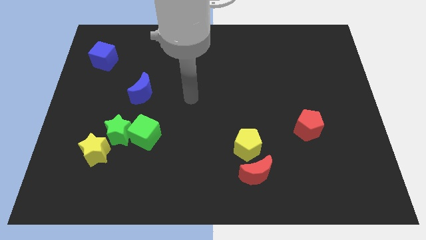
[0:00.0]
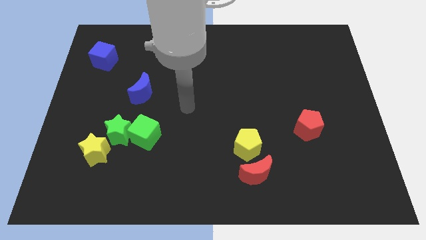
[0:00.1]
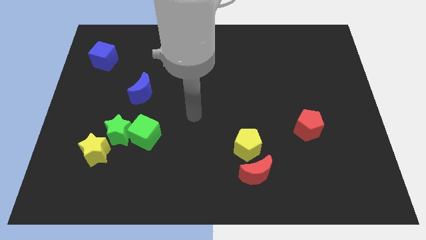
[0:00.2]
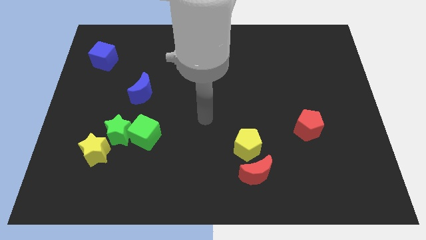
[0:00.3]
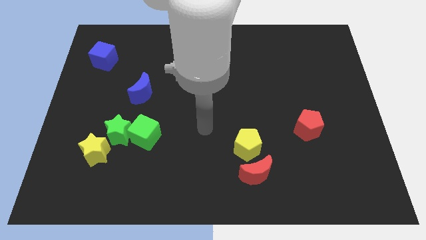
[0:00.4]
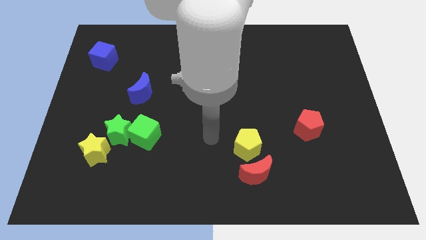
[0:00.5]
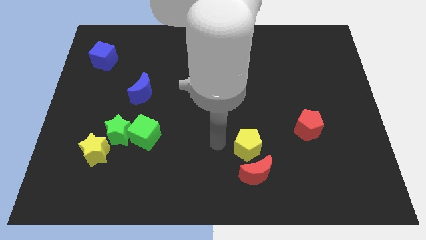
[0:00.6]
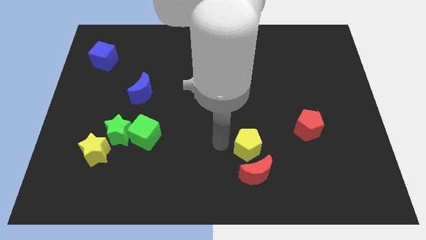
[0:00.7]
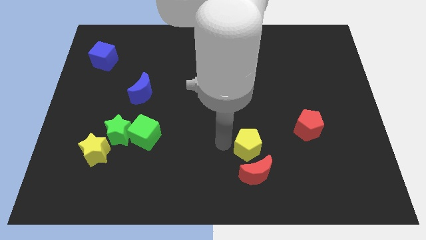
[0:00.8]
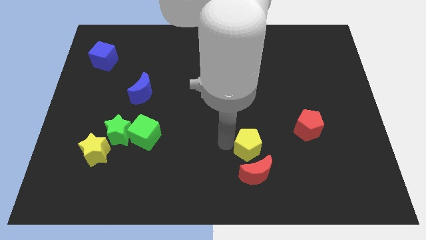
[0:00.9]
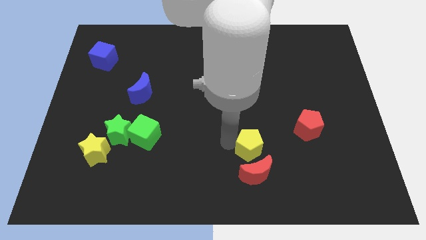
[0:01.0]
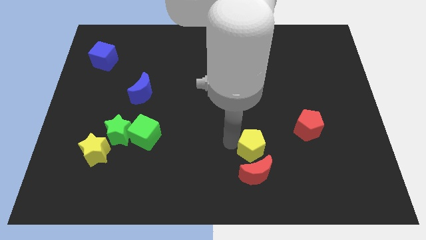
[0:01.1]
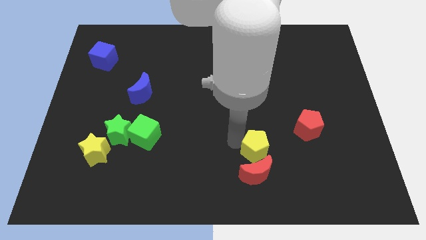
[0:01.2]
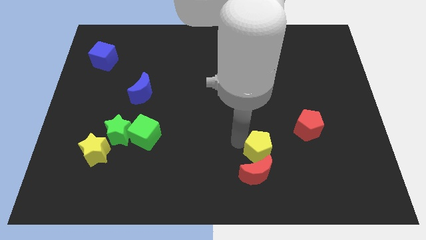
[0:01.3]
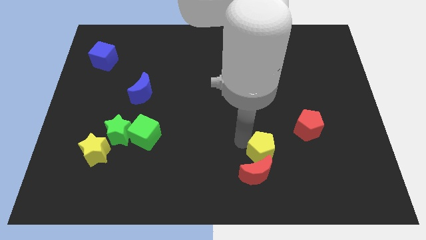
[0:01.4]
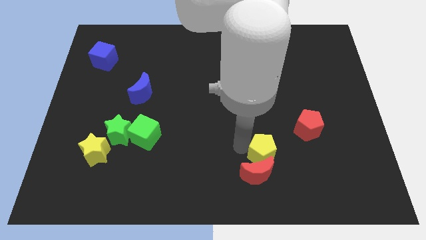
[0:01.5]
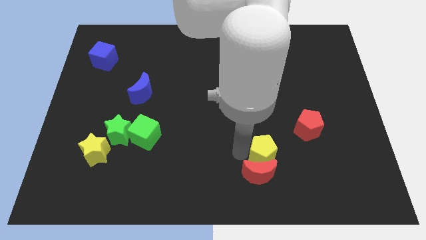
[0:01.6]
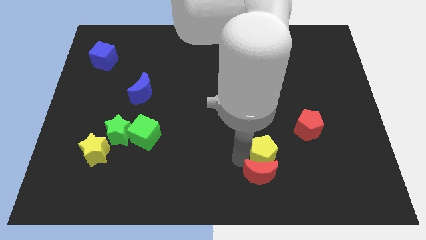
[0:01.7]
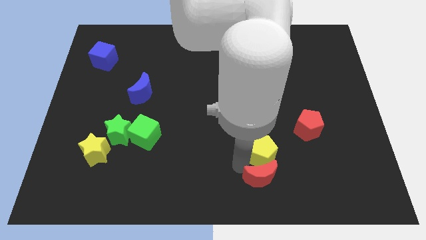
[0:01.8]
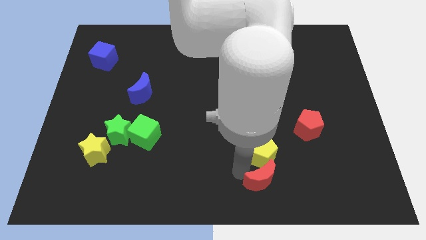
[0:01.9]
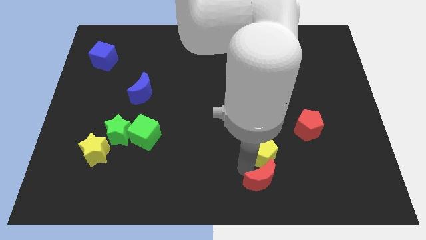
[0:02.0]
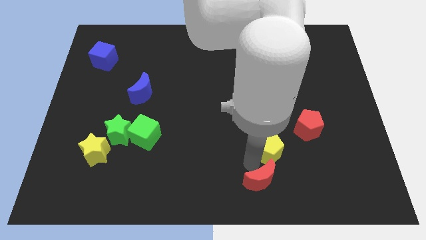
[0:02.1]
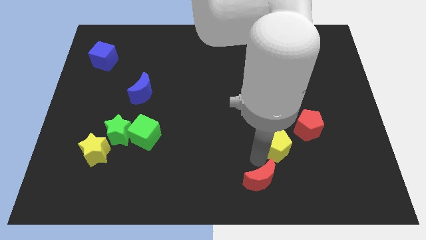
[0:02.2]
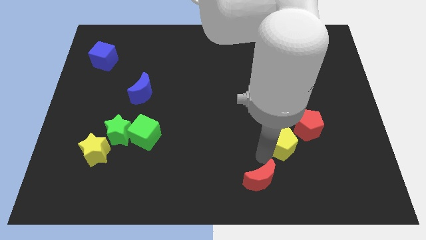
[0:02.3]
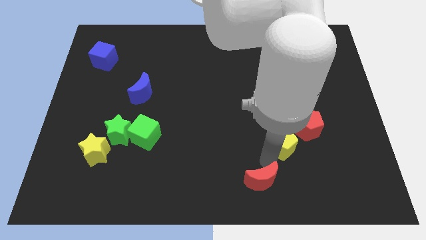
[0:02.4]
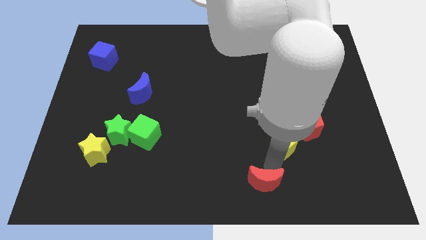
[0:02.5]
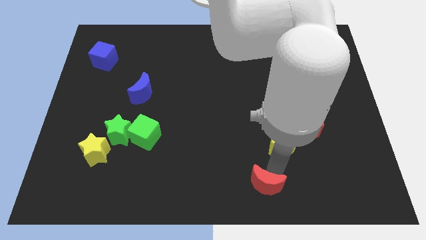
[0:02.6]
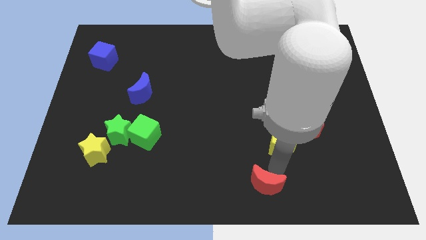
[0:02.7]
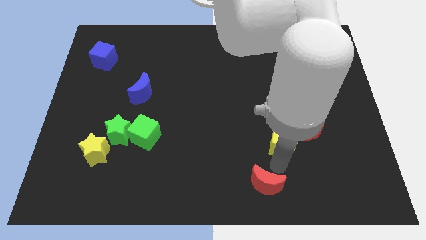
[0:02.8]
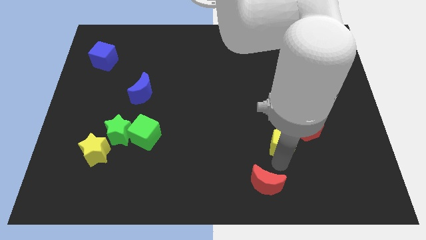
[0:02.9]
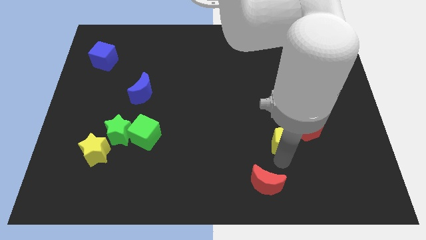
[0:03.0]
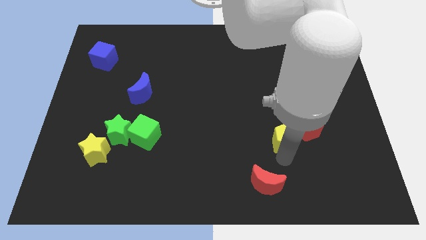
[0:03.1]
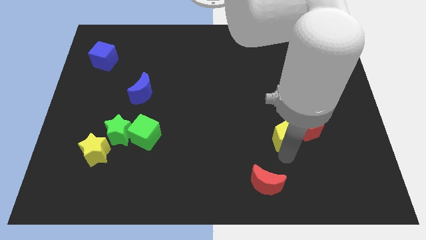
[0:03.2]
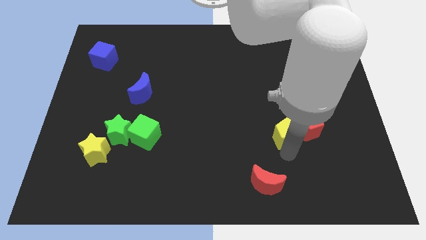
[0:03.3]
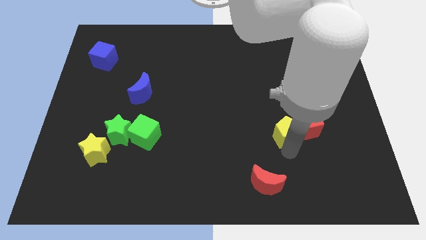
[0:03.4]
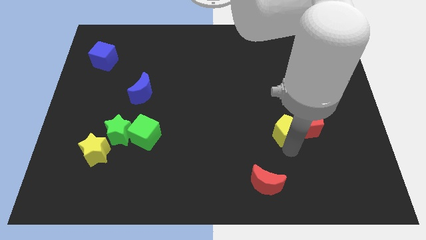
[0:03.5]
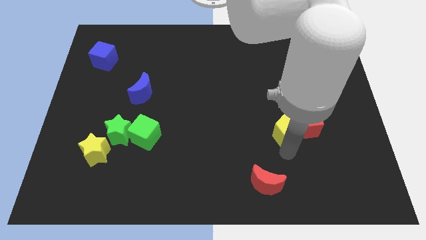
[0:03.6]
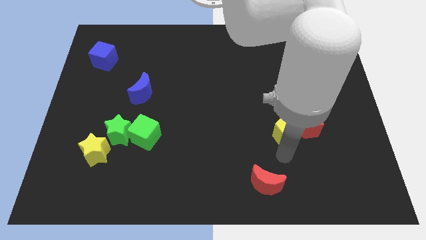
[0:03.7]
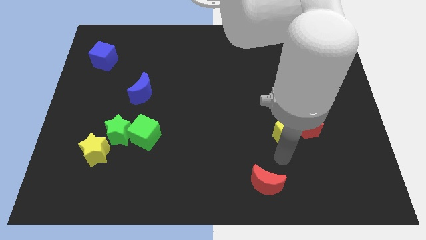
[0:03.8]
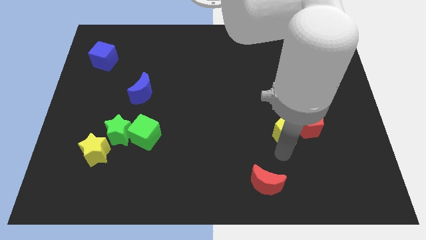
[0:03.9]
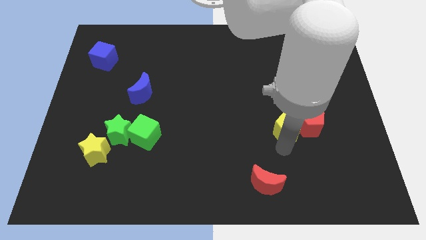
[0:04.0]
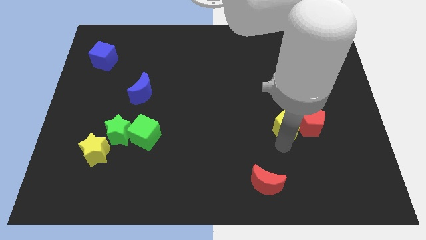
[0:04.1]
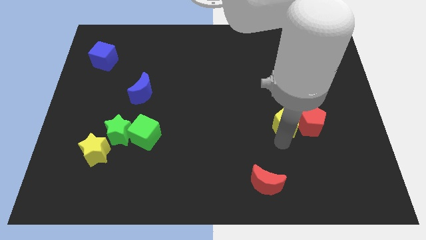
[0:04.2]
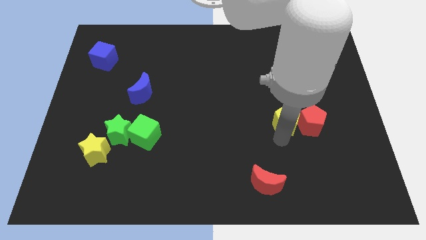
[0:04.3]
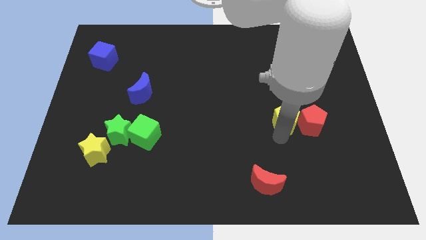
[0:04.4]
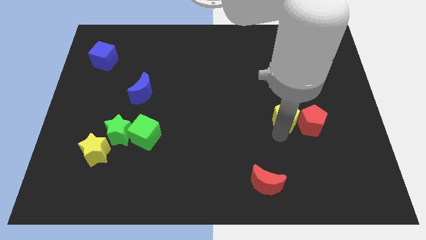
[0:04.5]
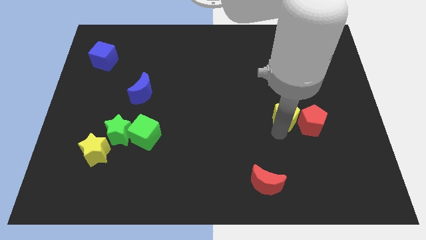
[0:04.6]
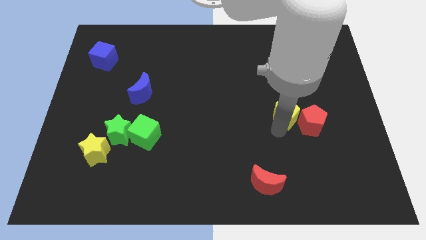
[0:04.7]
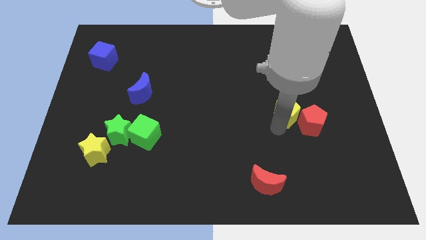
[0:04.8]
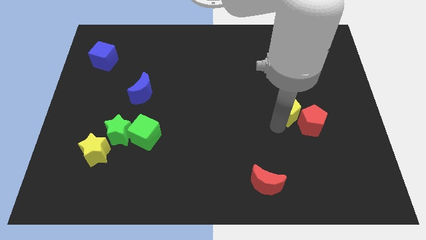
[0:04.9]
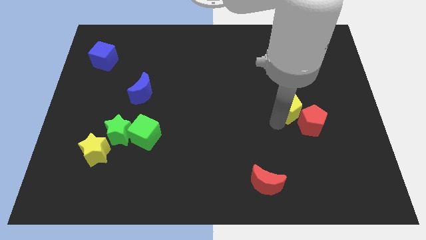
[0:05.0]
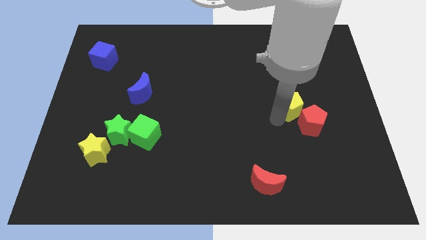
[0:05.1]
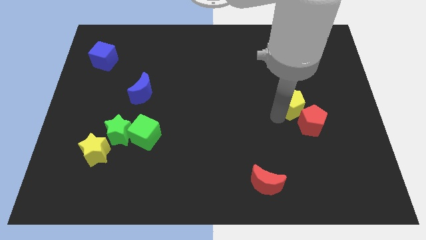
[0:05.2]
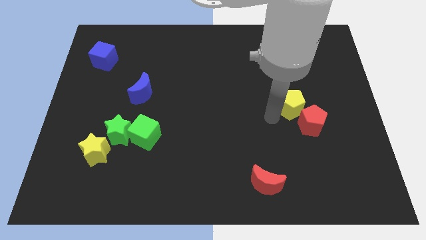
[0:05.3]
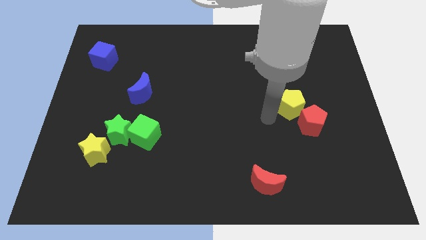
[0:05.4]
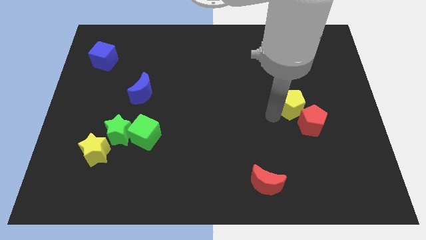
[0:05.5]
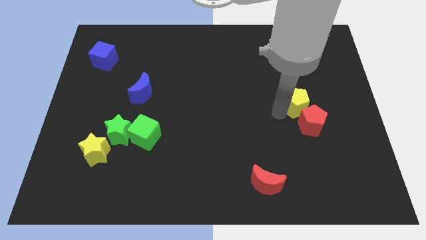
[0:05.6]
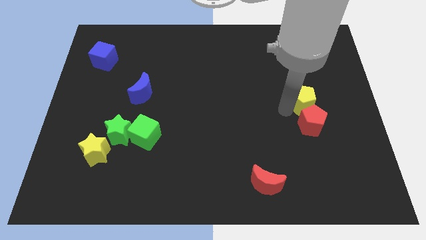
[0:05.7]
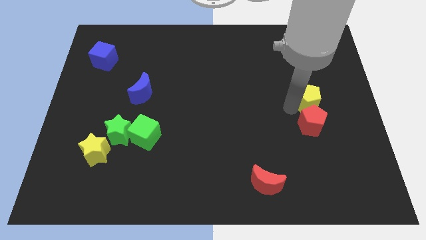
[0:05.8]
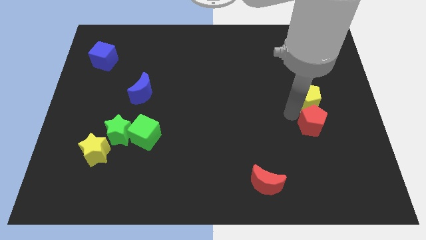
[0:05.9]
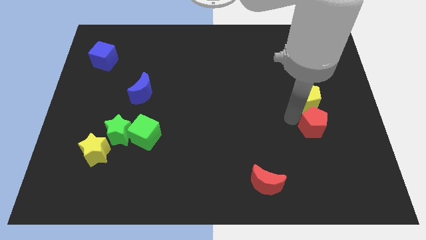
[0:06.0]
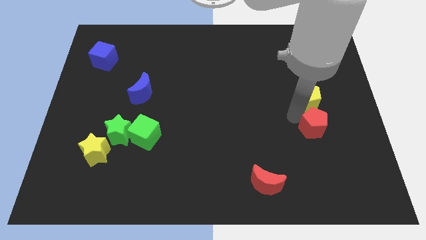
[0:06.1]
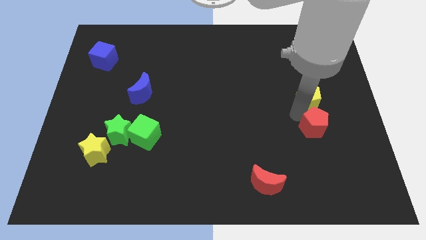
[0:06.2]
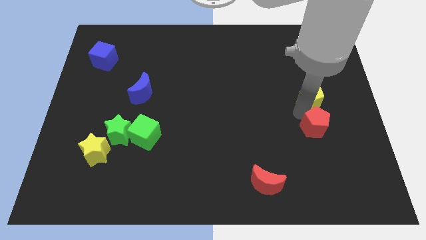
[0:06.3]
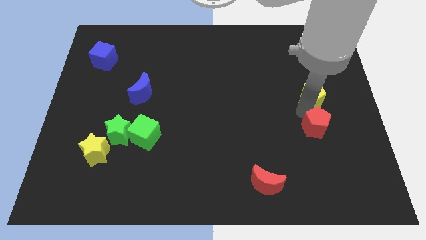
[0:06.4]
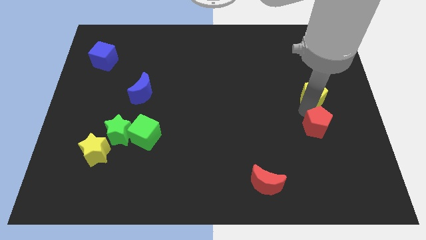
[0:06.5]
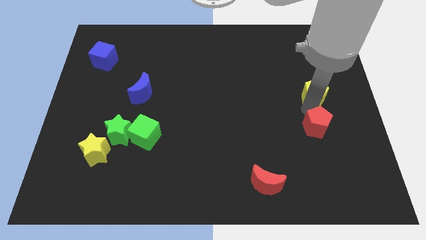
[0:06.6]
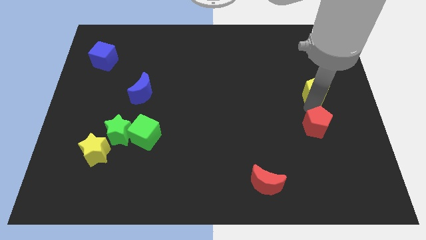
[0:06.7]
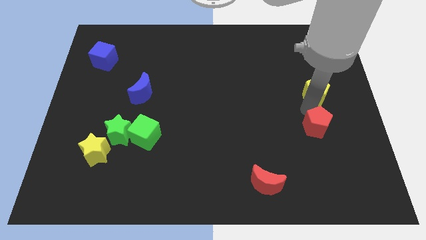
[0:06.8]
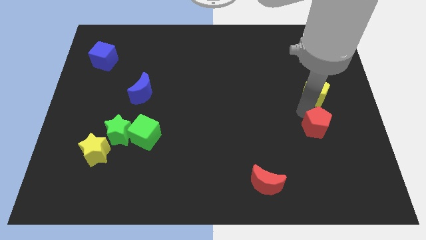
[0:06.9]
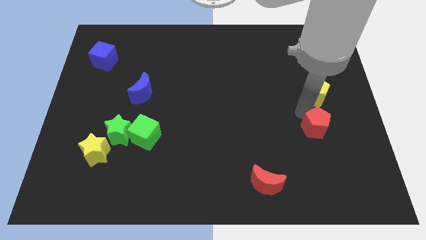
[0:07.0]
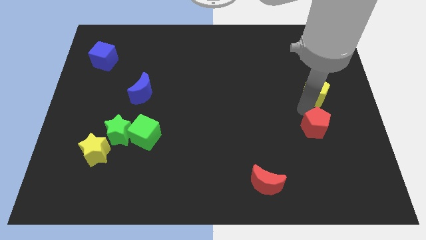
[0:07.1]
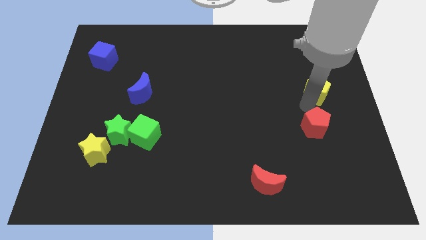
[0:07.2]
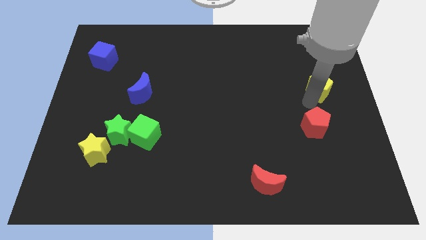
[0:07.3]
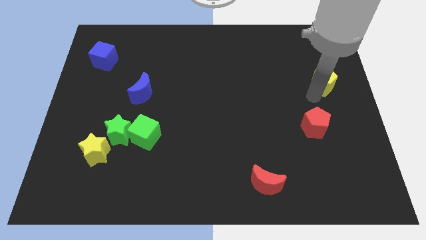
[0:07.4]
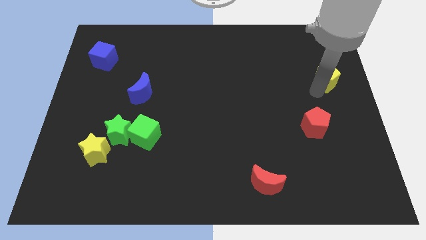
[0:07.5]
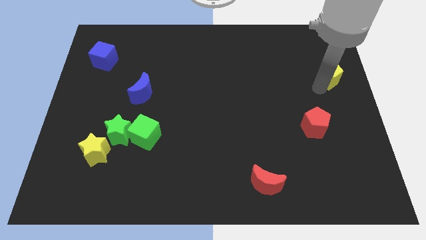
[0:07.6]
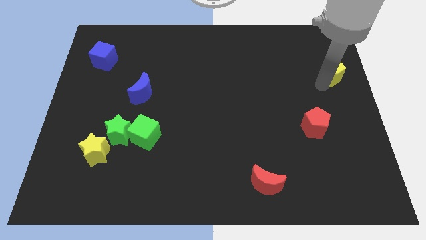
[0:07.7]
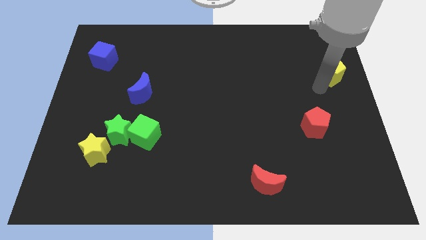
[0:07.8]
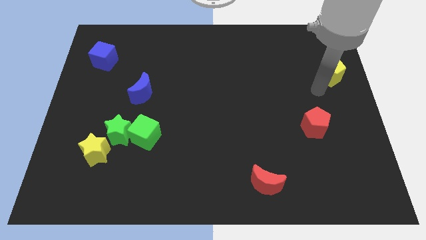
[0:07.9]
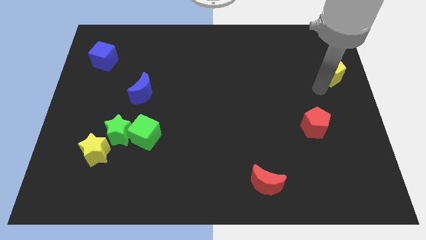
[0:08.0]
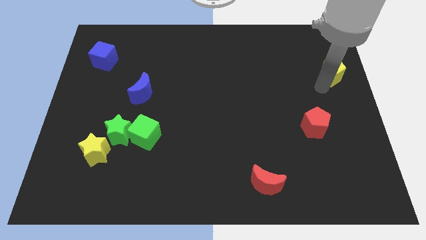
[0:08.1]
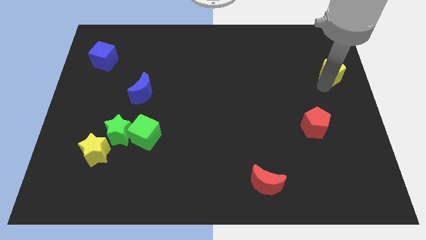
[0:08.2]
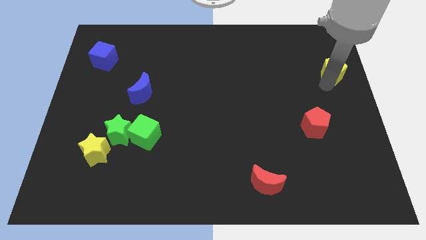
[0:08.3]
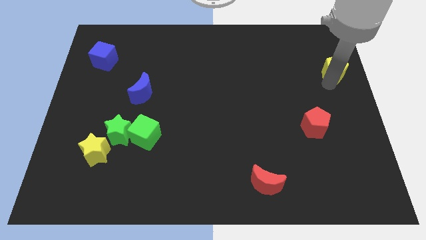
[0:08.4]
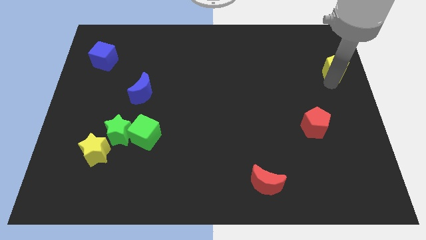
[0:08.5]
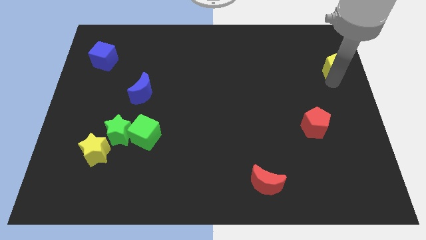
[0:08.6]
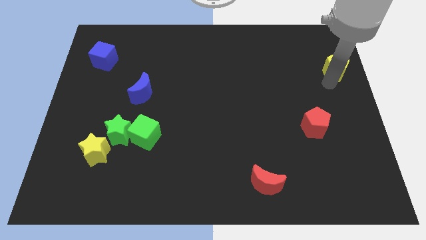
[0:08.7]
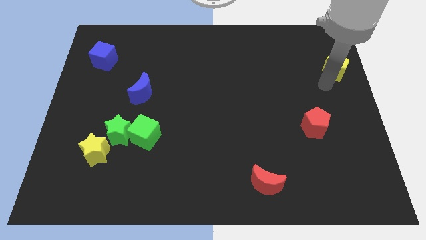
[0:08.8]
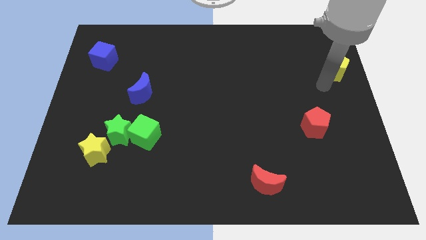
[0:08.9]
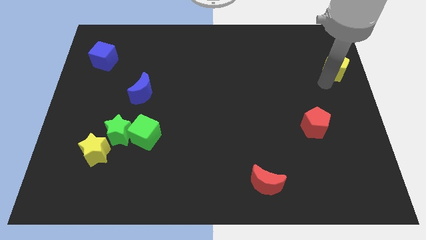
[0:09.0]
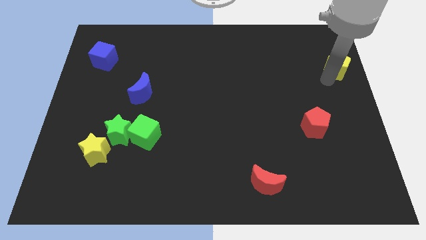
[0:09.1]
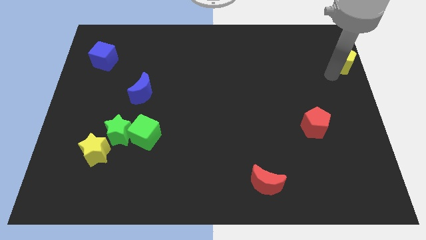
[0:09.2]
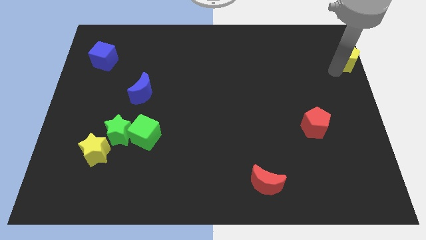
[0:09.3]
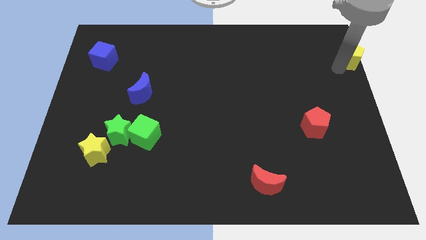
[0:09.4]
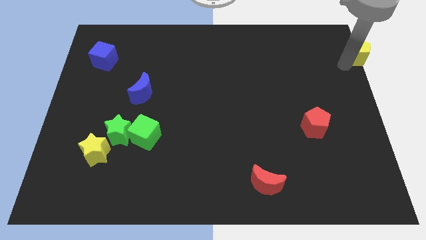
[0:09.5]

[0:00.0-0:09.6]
slide the yellow pentagon to the top right of the board
